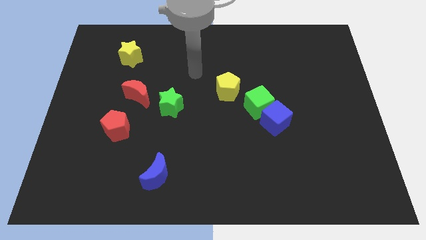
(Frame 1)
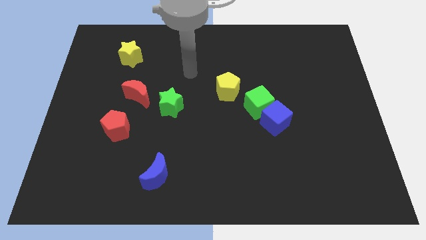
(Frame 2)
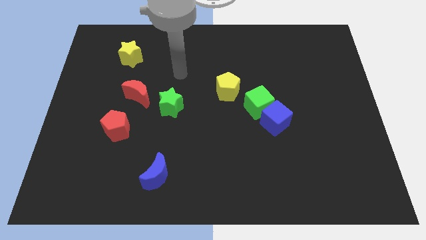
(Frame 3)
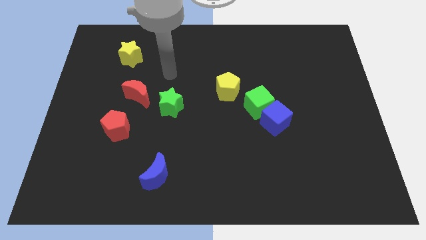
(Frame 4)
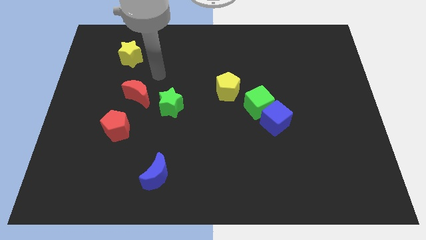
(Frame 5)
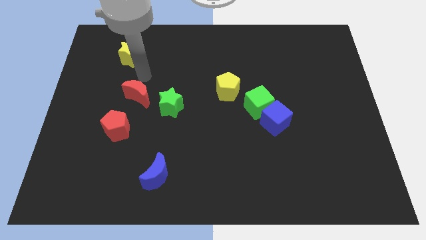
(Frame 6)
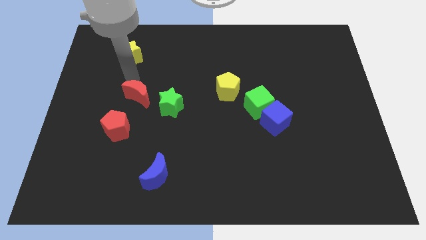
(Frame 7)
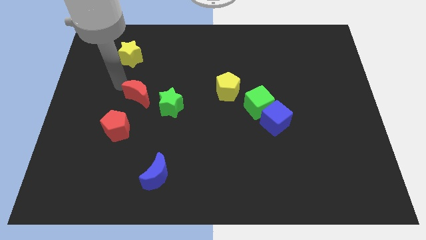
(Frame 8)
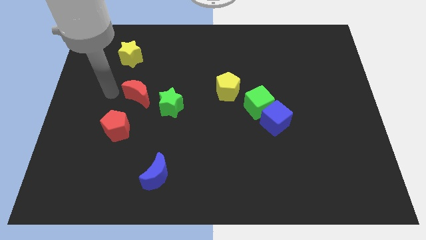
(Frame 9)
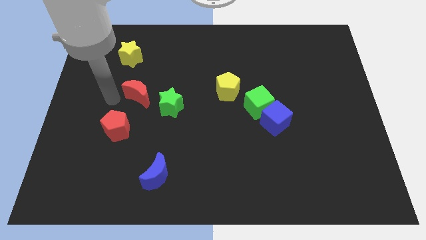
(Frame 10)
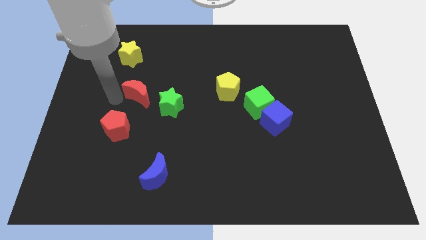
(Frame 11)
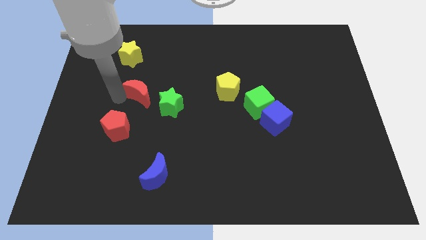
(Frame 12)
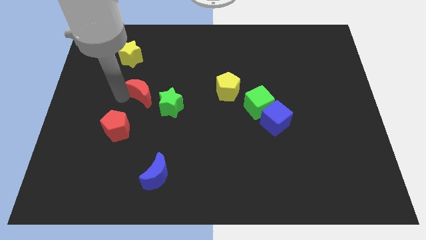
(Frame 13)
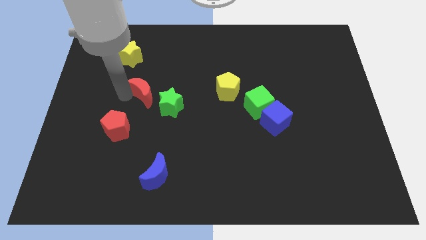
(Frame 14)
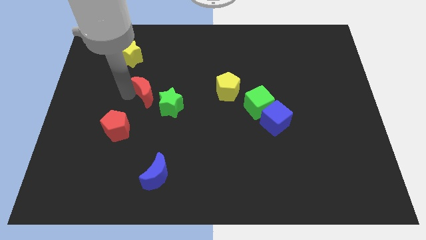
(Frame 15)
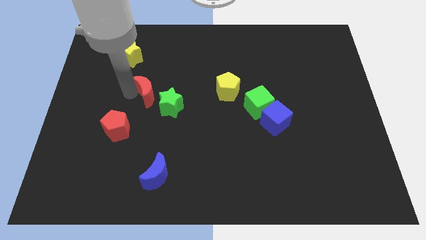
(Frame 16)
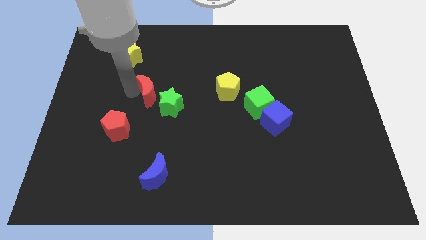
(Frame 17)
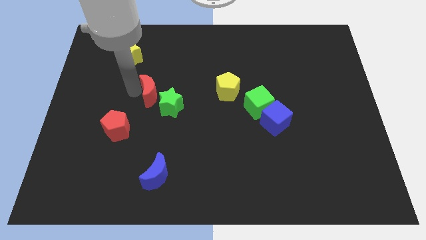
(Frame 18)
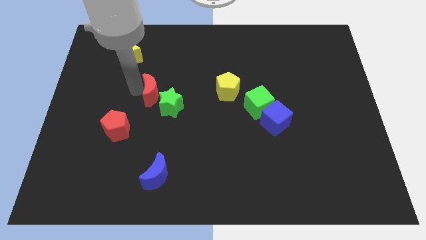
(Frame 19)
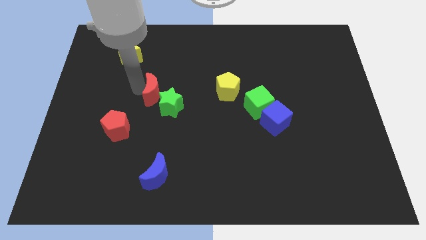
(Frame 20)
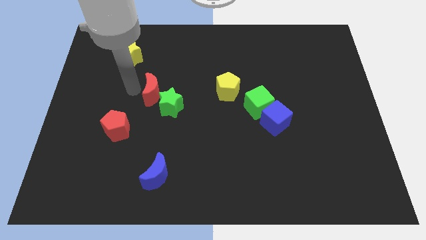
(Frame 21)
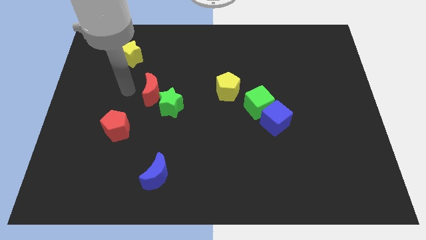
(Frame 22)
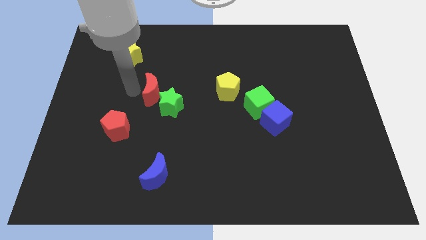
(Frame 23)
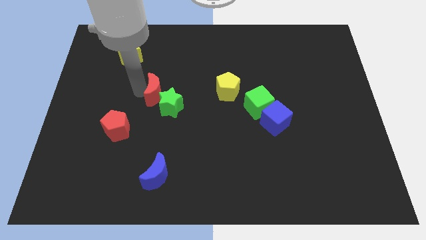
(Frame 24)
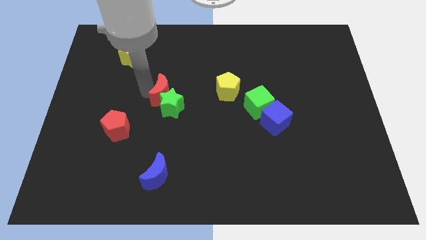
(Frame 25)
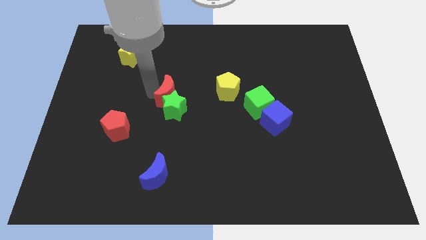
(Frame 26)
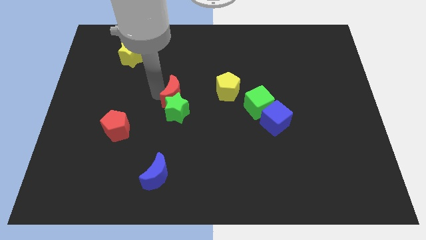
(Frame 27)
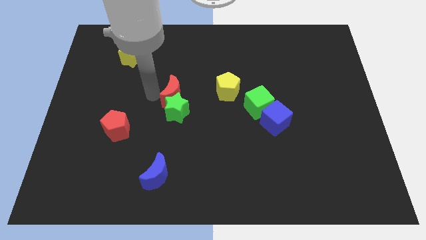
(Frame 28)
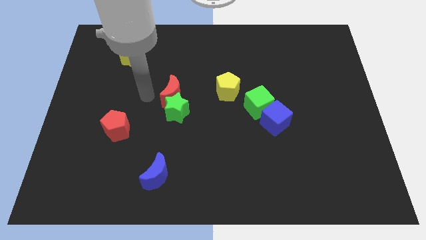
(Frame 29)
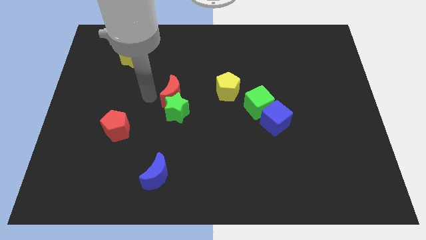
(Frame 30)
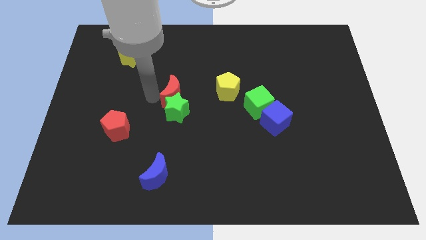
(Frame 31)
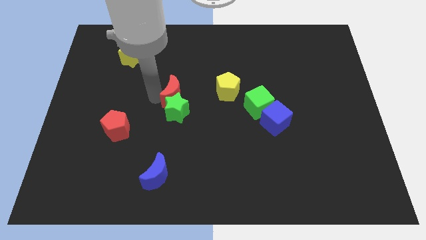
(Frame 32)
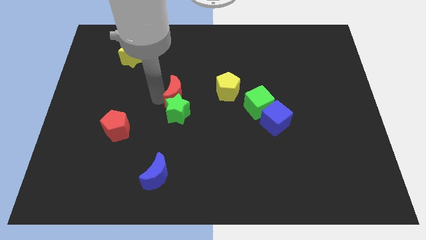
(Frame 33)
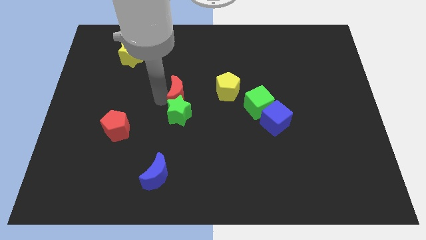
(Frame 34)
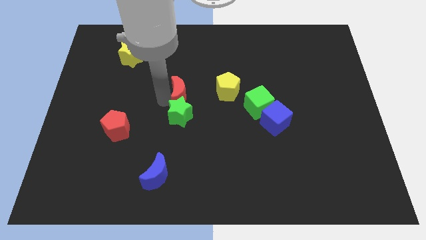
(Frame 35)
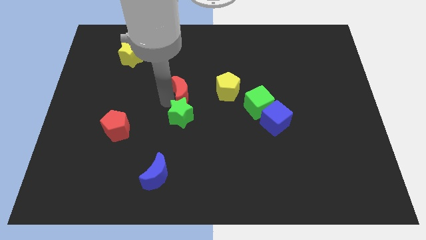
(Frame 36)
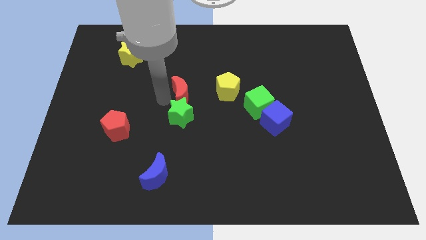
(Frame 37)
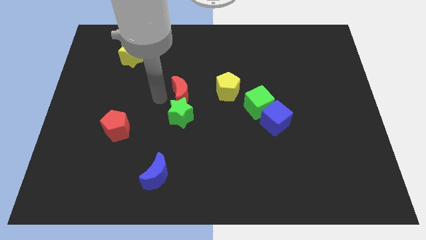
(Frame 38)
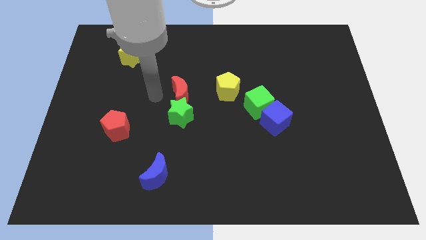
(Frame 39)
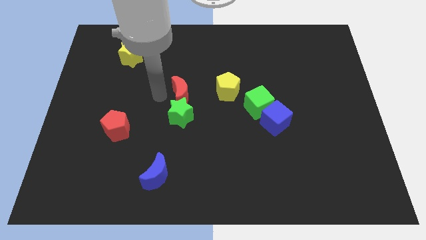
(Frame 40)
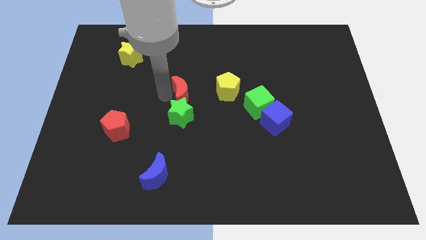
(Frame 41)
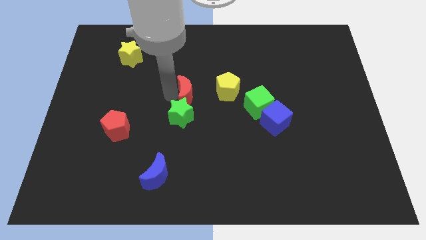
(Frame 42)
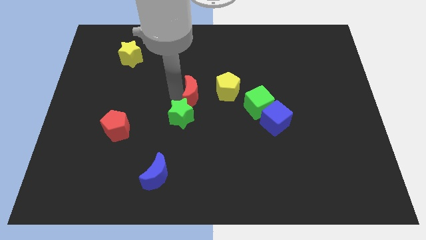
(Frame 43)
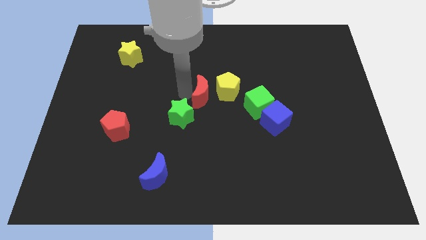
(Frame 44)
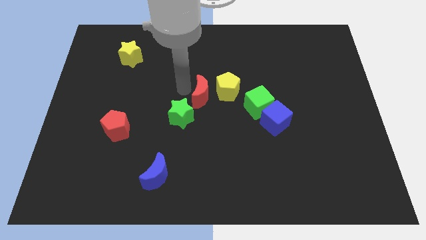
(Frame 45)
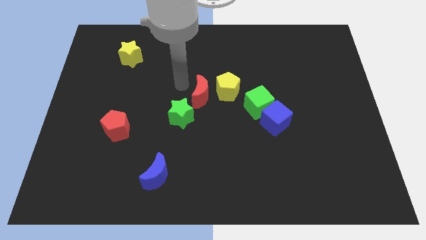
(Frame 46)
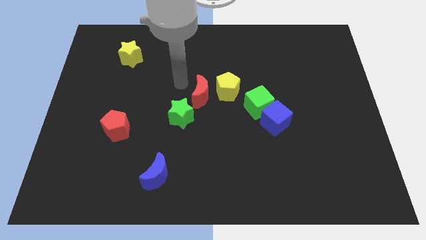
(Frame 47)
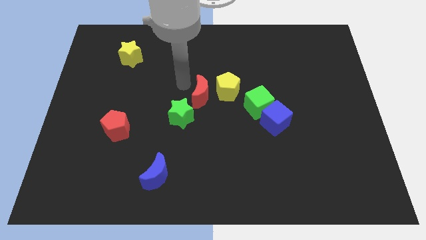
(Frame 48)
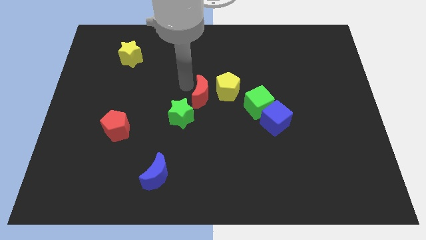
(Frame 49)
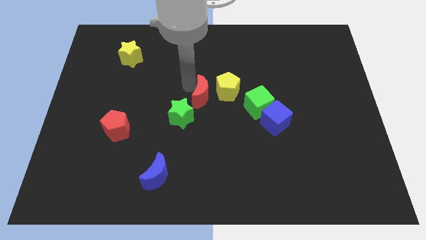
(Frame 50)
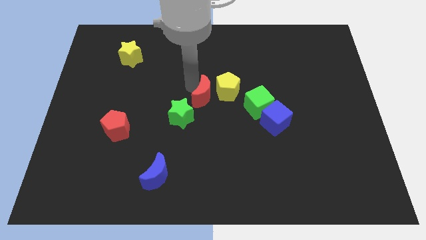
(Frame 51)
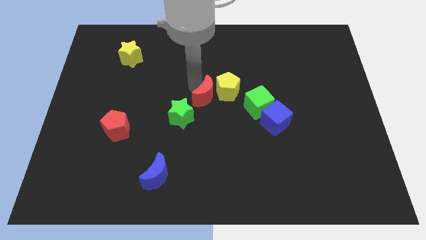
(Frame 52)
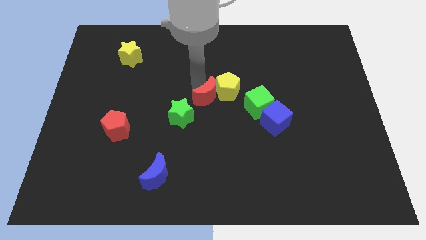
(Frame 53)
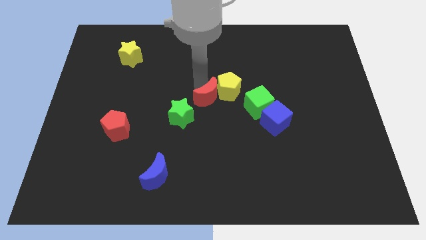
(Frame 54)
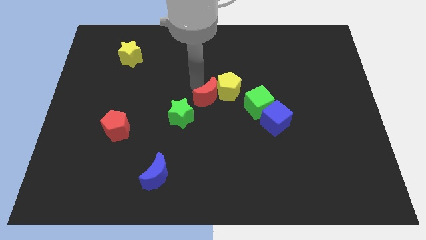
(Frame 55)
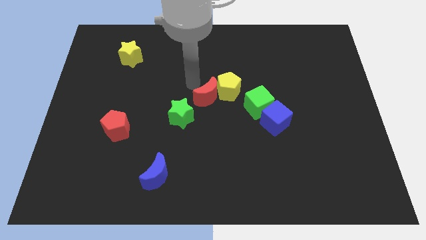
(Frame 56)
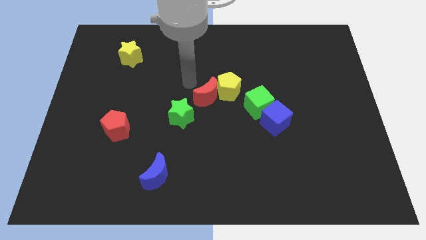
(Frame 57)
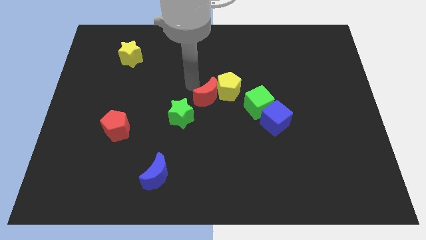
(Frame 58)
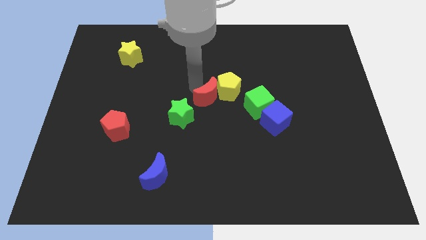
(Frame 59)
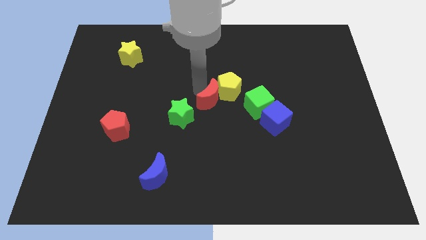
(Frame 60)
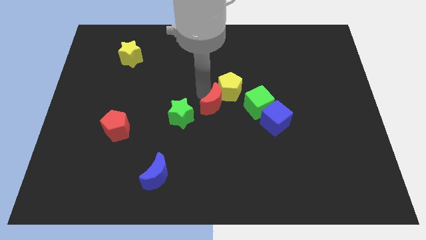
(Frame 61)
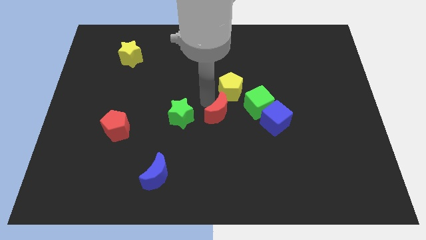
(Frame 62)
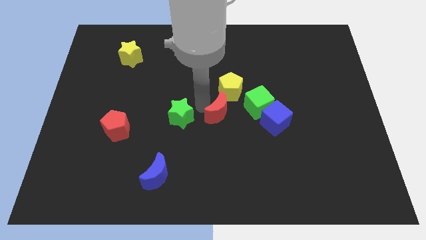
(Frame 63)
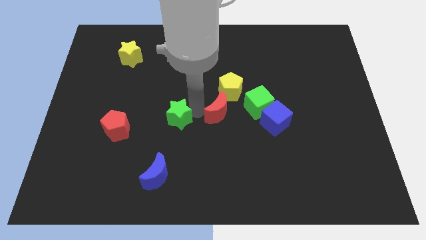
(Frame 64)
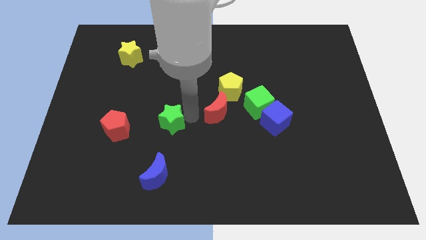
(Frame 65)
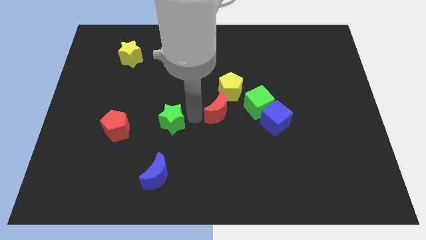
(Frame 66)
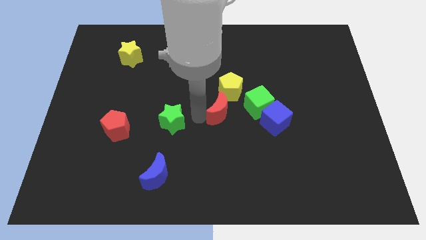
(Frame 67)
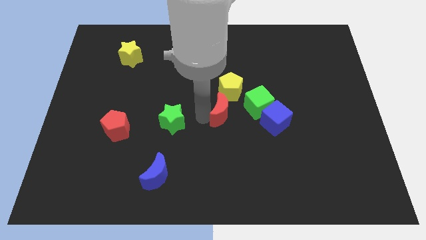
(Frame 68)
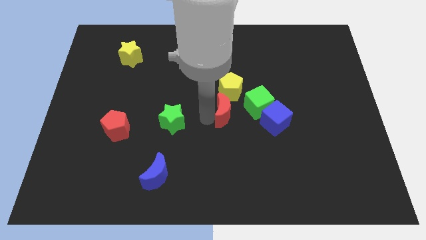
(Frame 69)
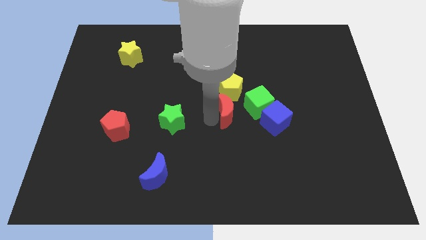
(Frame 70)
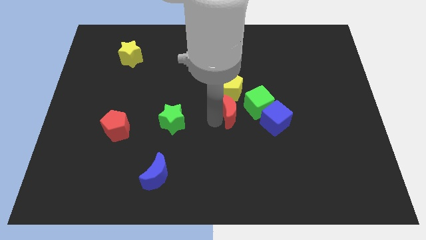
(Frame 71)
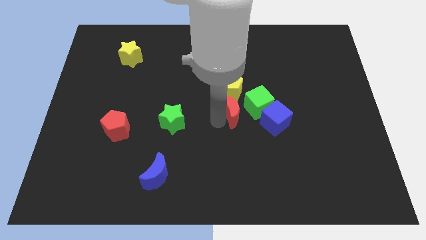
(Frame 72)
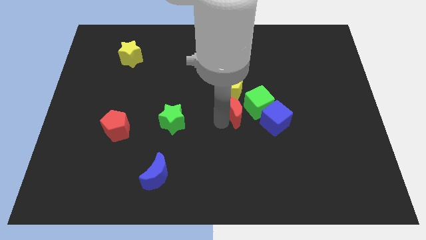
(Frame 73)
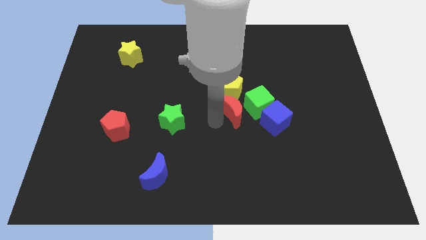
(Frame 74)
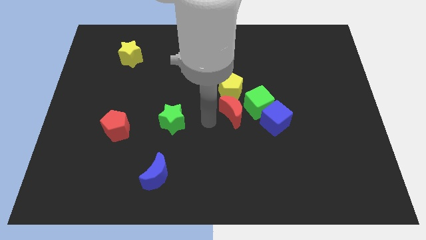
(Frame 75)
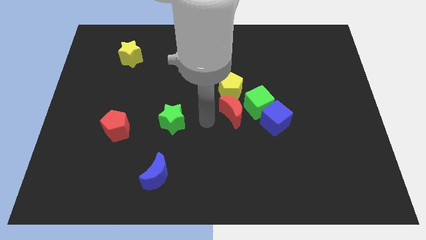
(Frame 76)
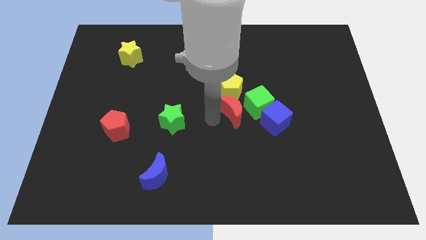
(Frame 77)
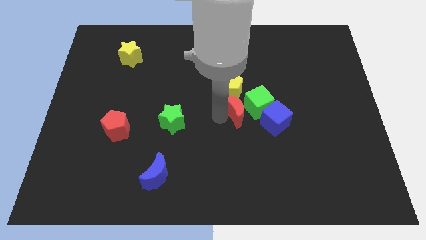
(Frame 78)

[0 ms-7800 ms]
move the red moon close to the green cube
